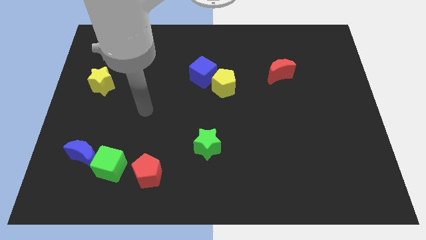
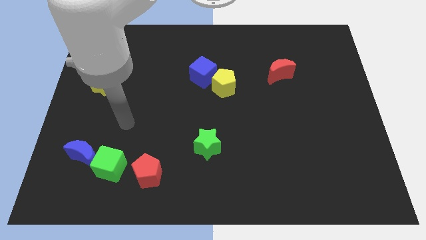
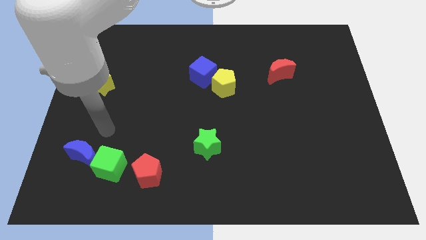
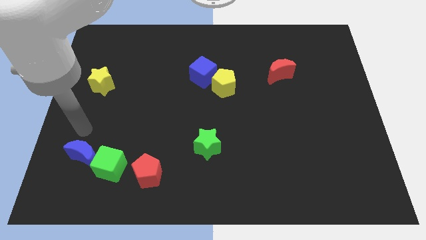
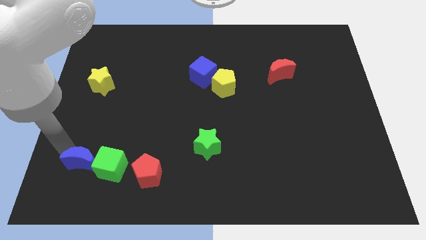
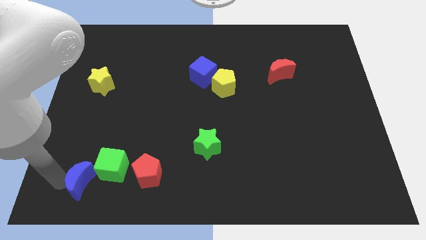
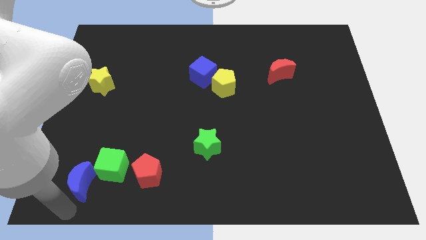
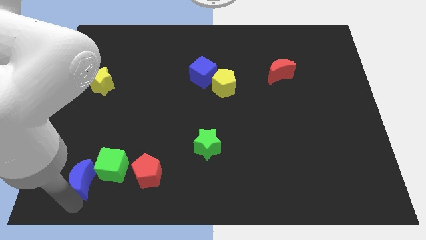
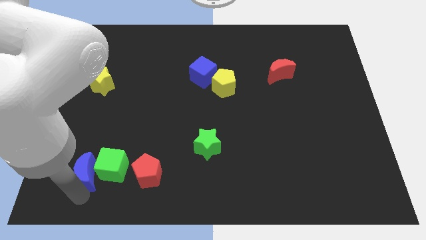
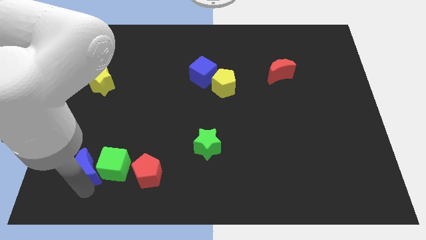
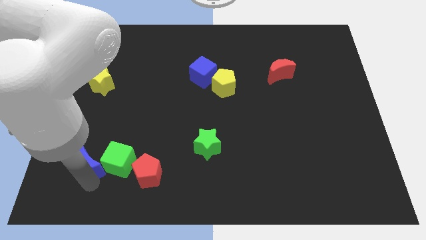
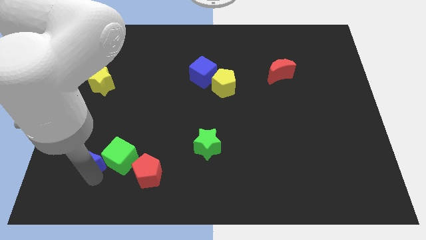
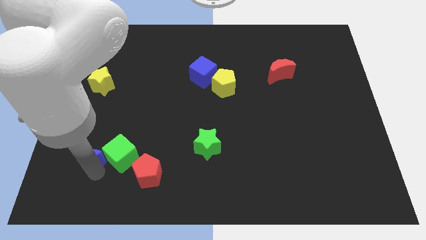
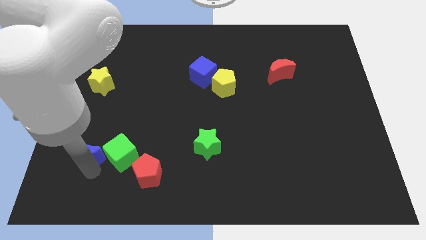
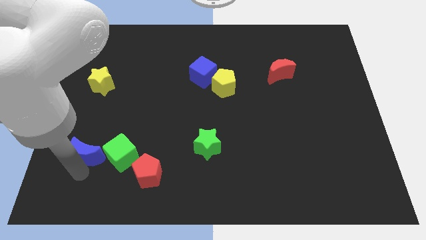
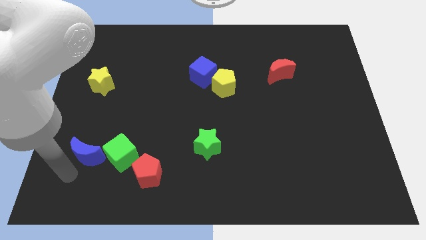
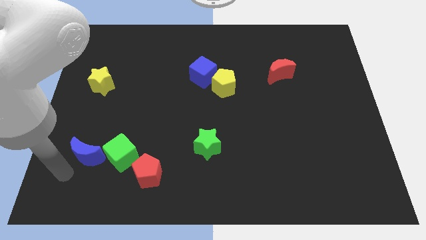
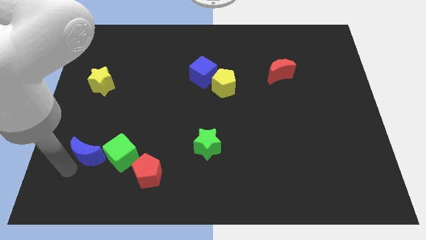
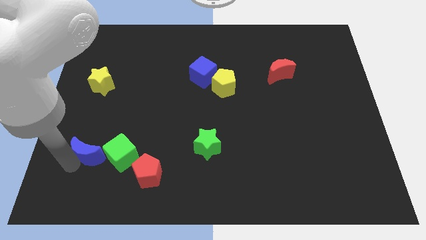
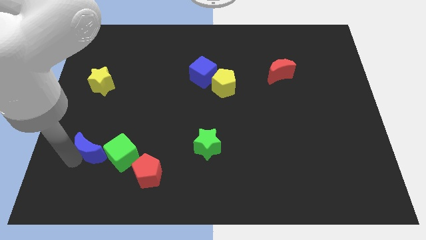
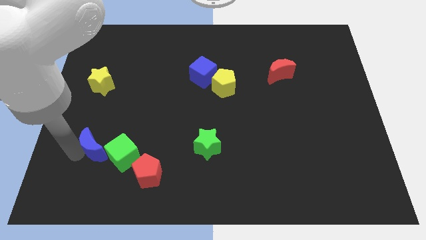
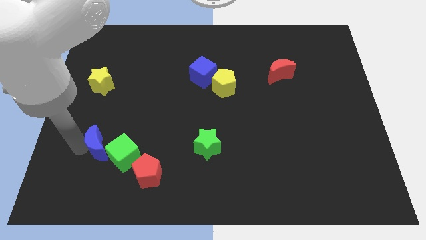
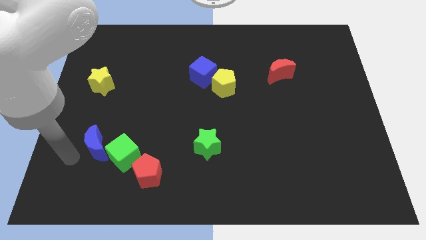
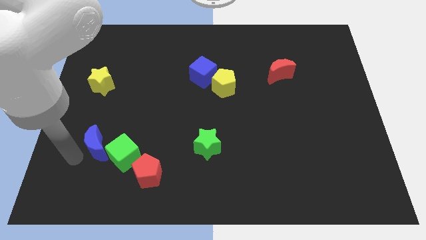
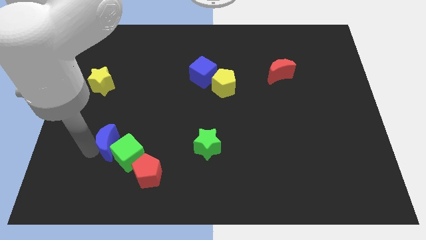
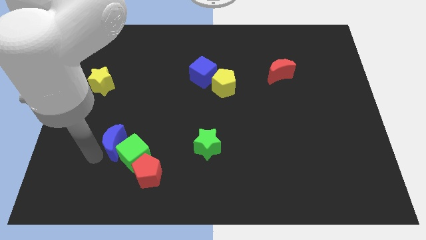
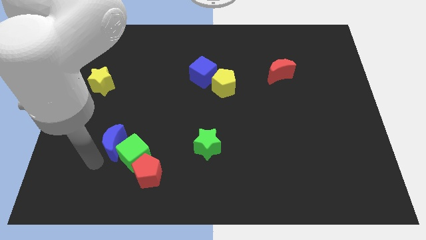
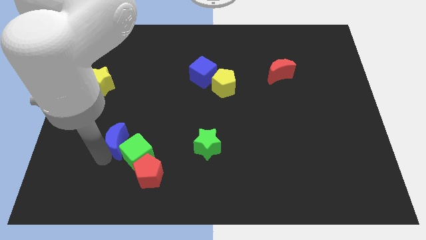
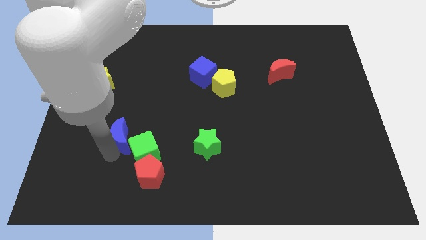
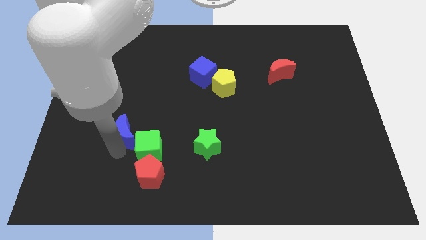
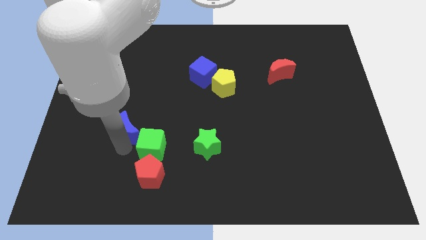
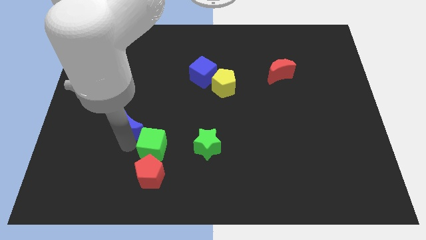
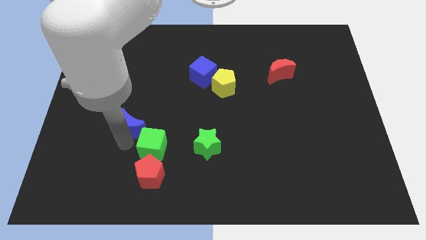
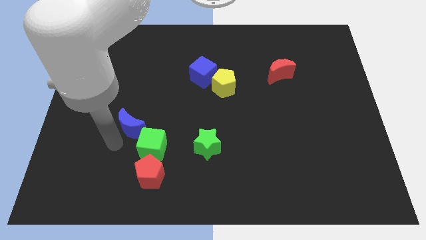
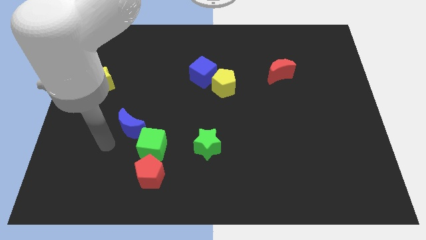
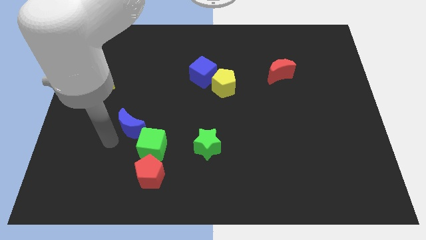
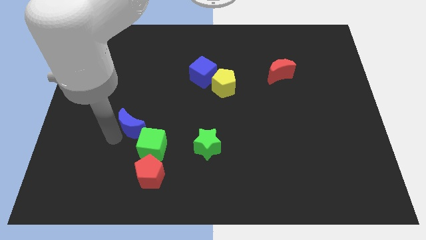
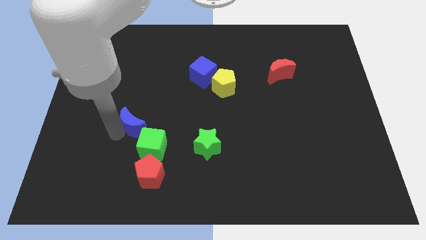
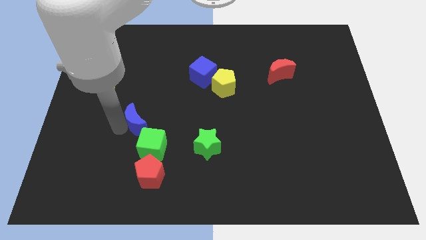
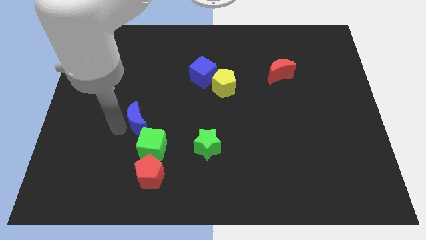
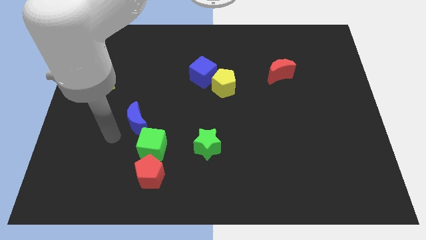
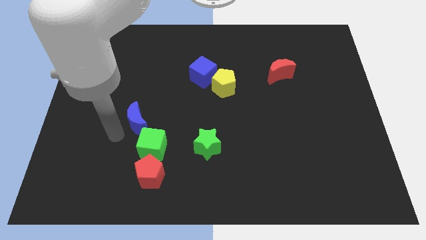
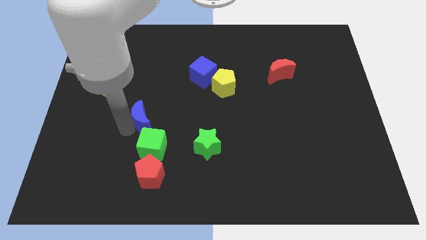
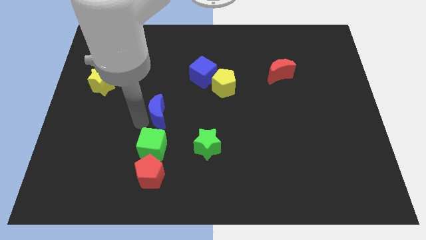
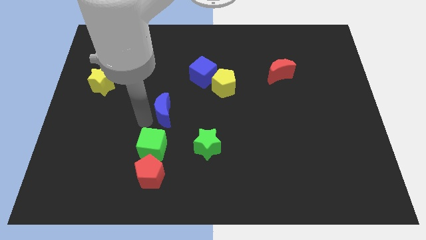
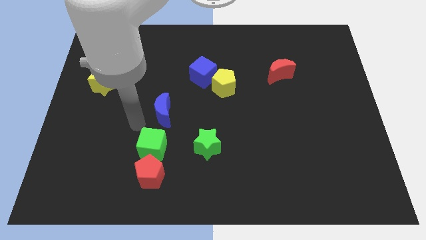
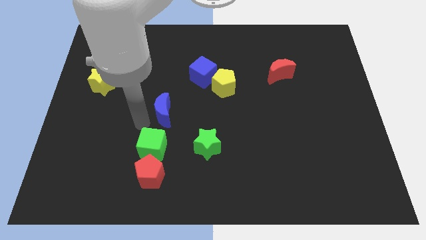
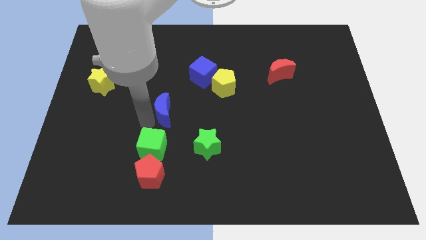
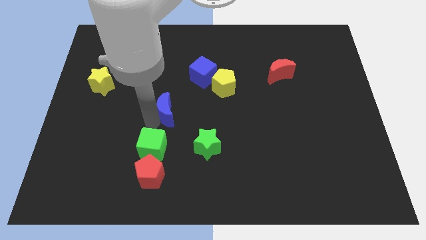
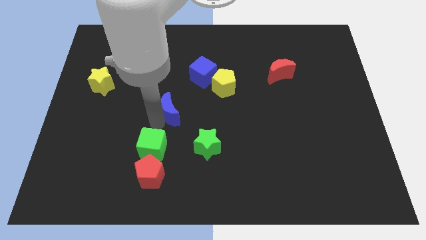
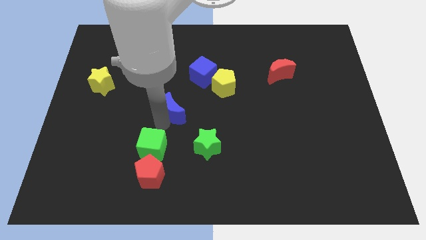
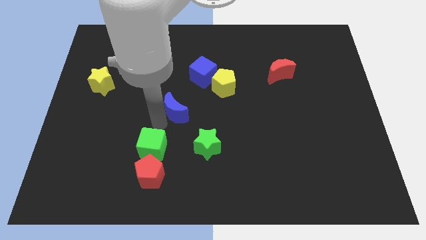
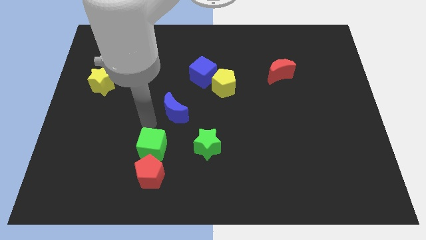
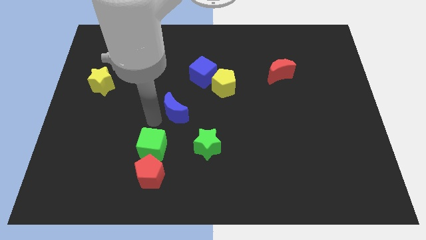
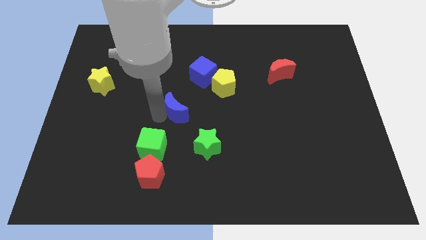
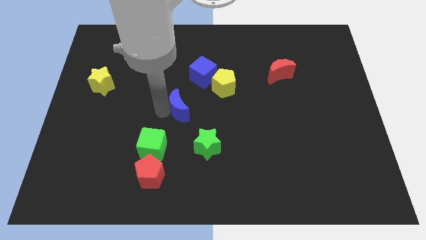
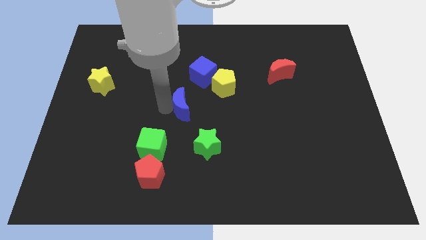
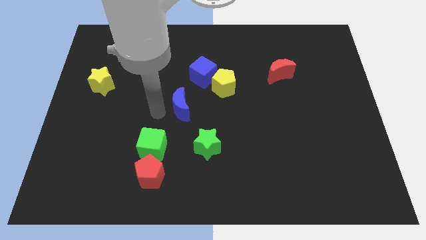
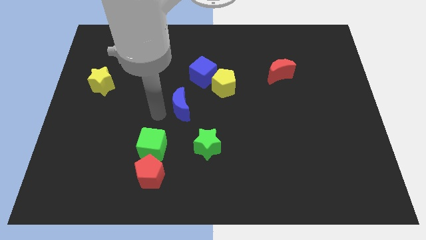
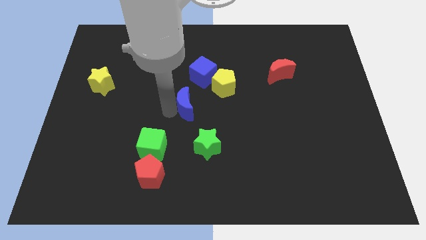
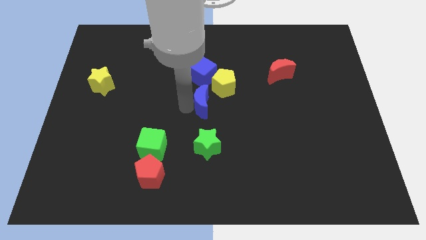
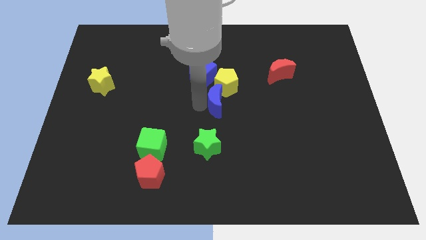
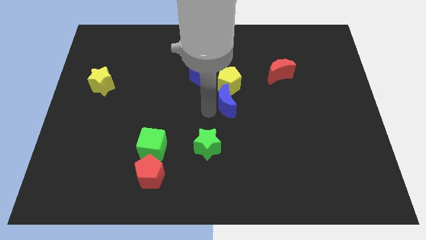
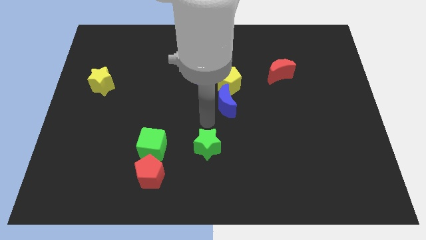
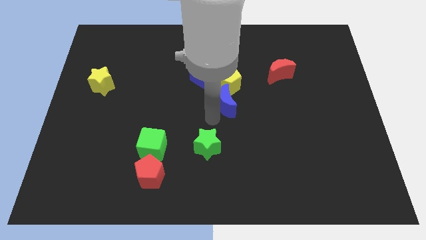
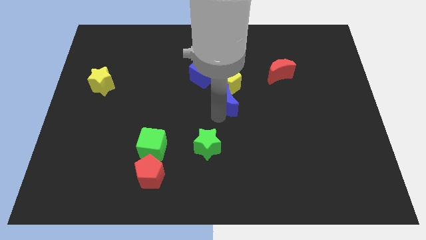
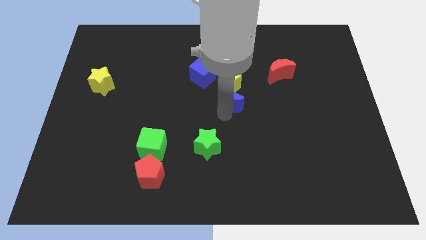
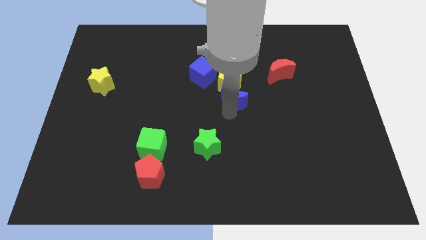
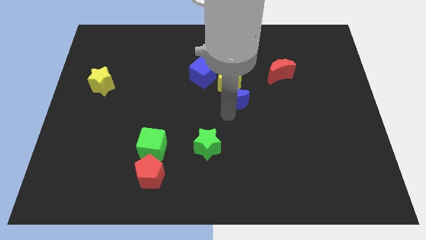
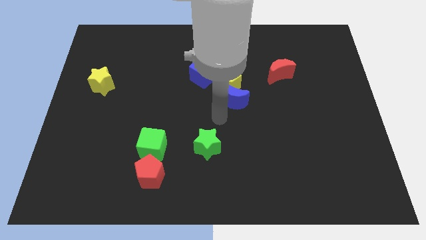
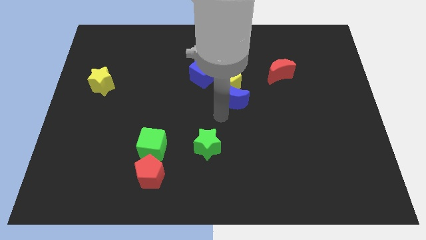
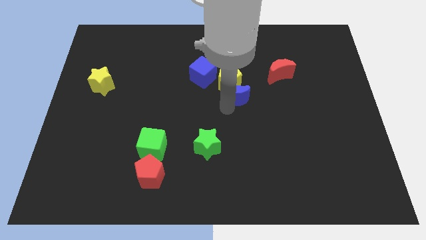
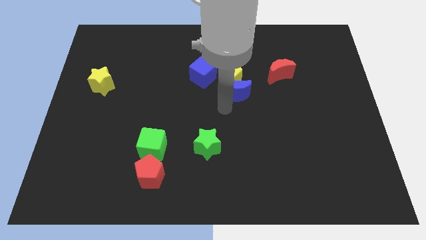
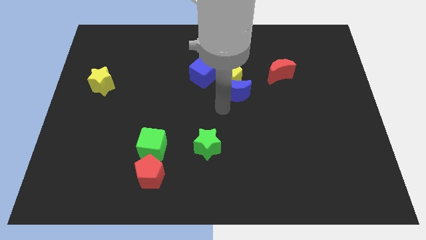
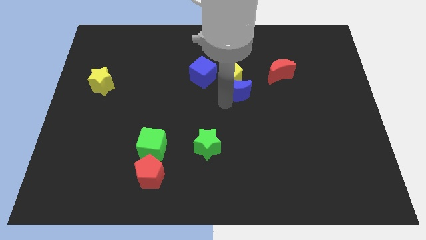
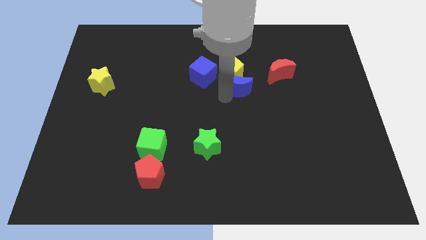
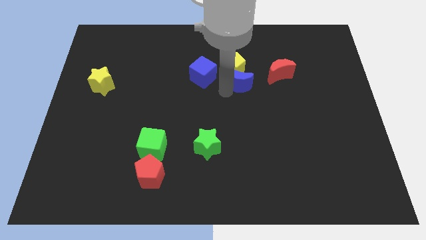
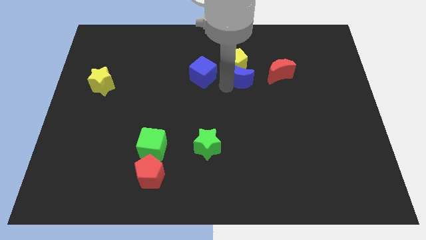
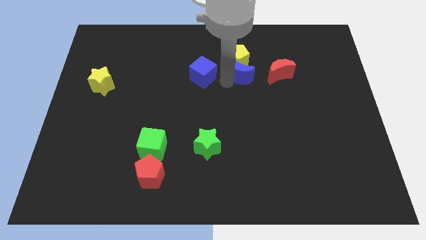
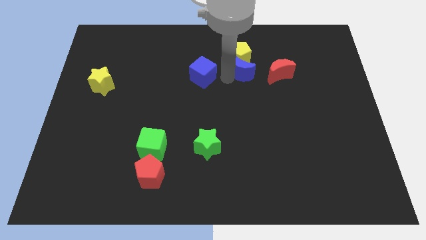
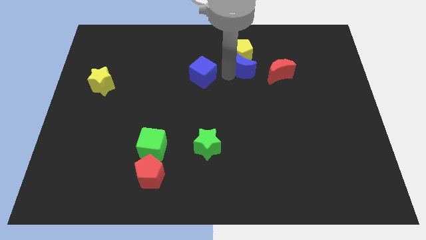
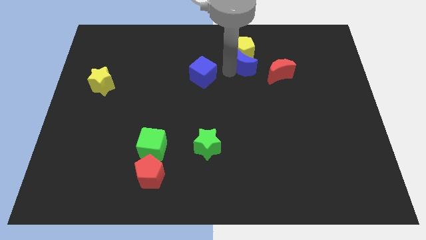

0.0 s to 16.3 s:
move the blue moon diagonally up and to the left of the red moon
